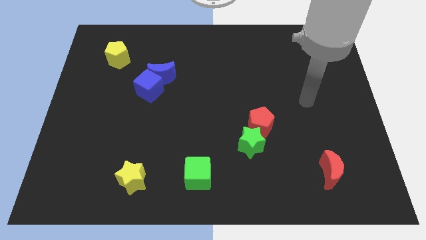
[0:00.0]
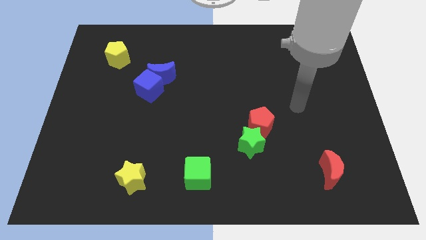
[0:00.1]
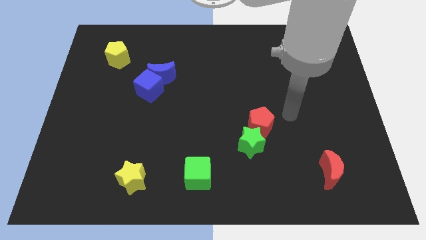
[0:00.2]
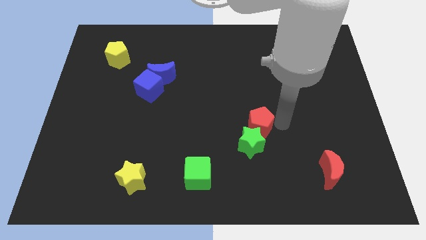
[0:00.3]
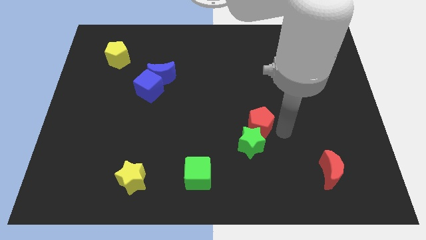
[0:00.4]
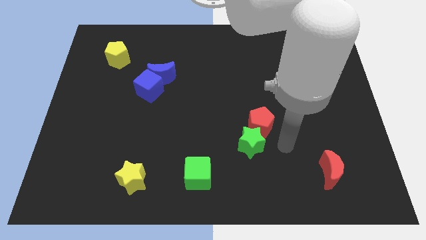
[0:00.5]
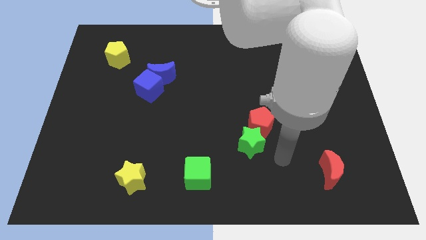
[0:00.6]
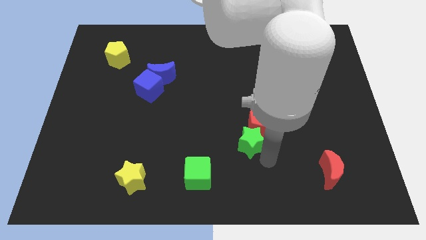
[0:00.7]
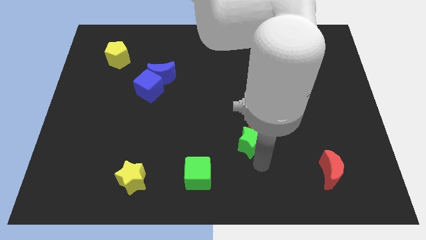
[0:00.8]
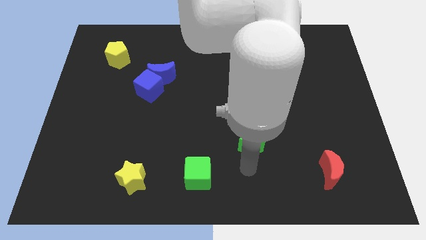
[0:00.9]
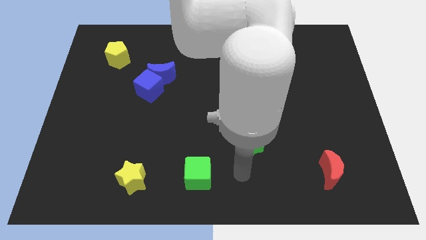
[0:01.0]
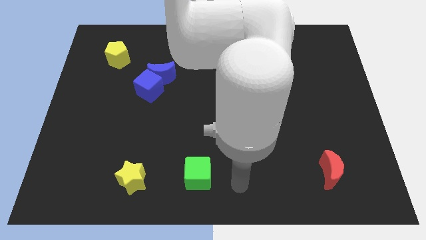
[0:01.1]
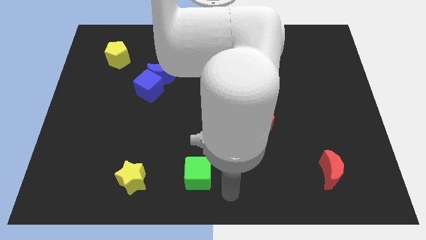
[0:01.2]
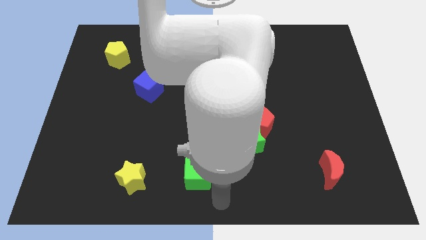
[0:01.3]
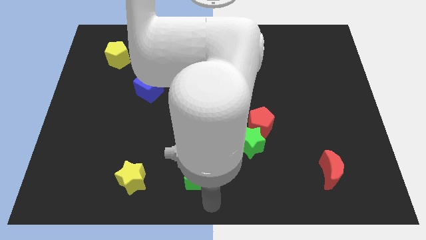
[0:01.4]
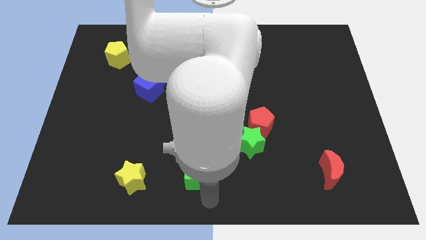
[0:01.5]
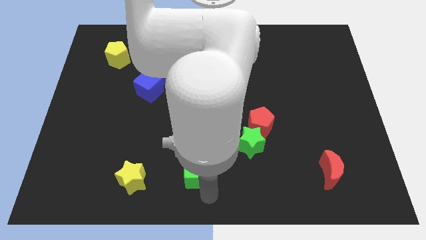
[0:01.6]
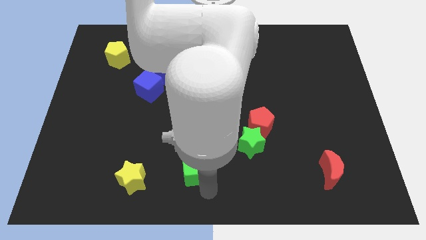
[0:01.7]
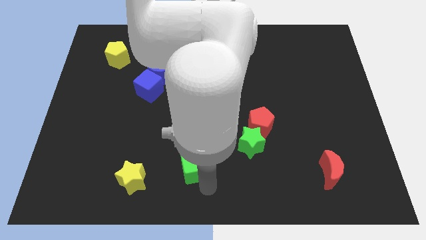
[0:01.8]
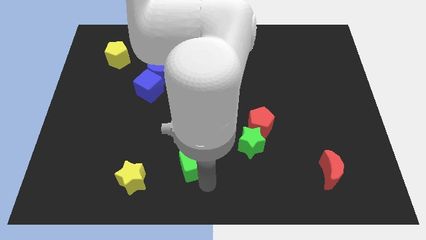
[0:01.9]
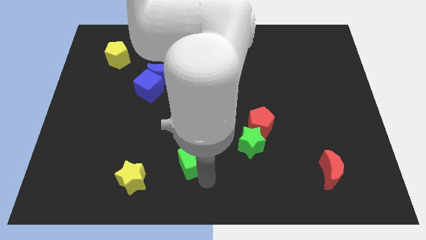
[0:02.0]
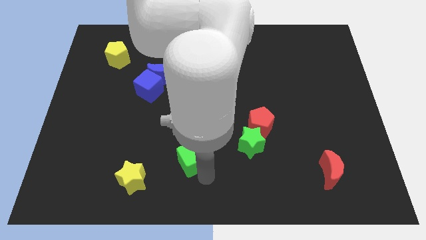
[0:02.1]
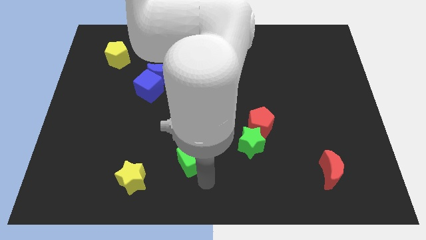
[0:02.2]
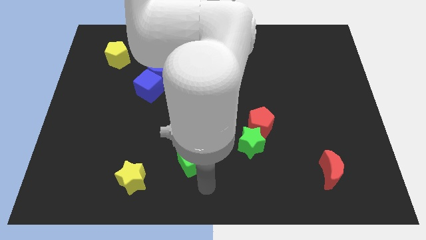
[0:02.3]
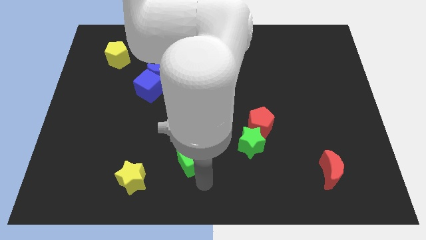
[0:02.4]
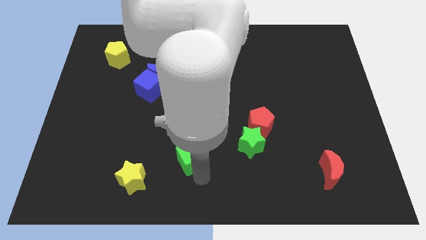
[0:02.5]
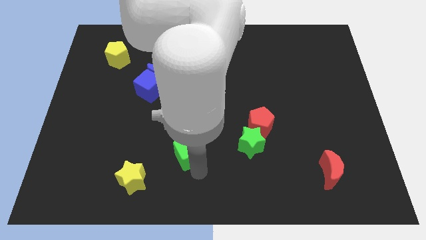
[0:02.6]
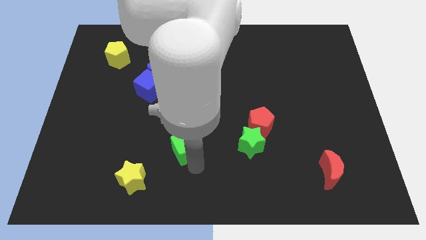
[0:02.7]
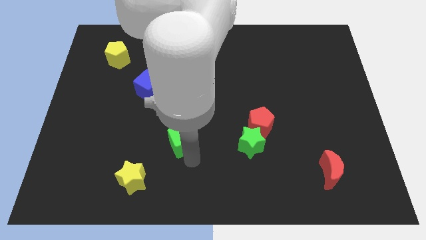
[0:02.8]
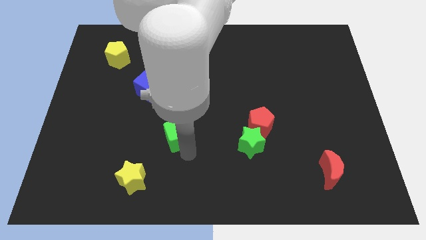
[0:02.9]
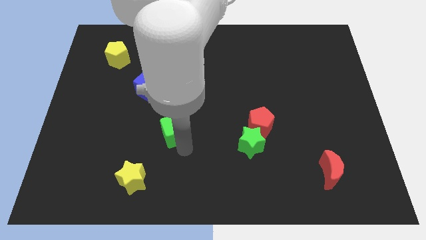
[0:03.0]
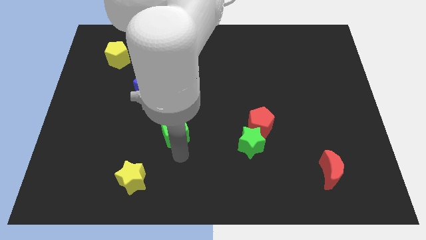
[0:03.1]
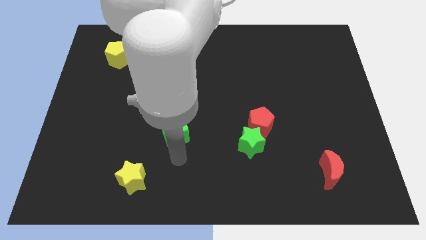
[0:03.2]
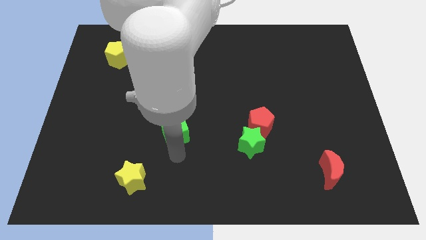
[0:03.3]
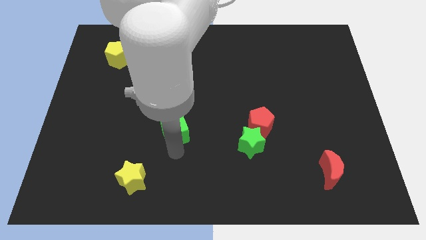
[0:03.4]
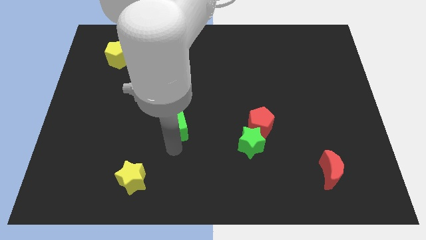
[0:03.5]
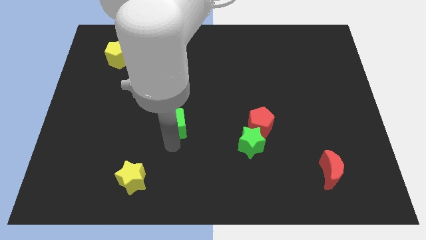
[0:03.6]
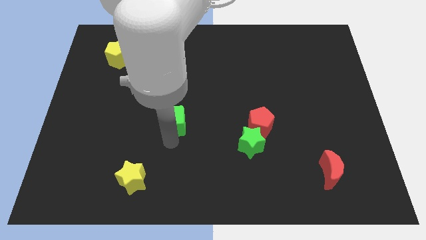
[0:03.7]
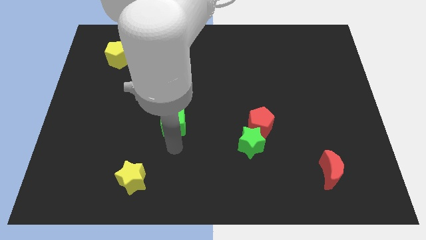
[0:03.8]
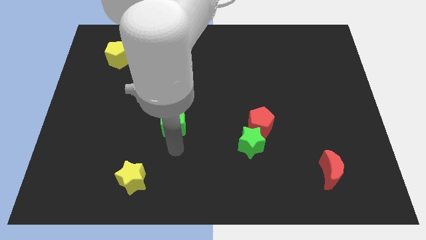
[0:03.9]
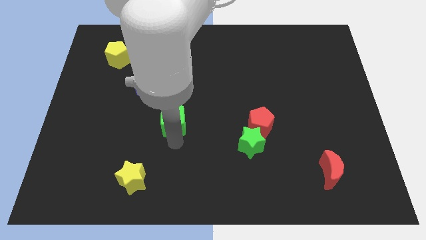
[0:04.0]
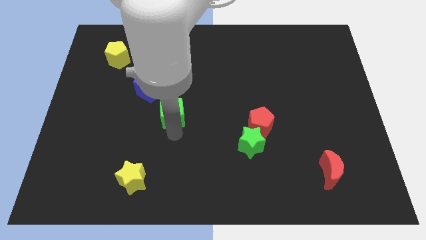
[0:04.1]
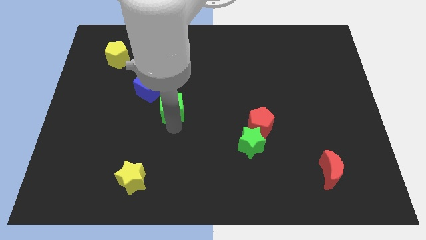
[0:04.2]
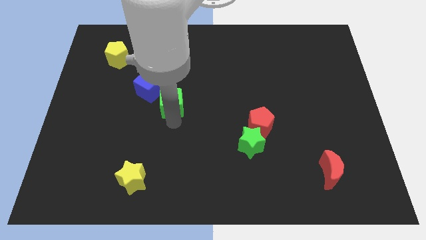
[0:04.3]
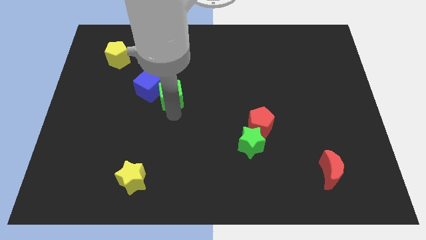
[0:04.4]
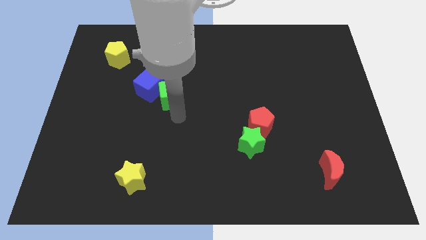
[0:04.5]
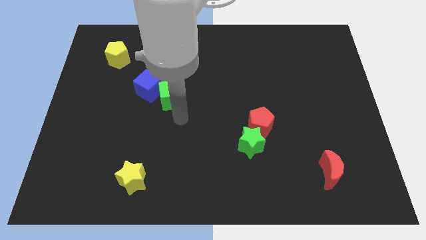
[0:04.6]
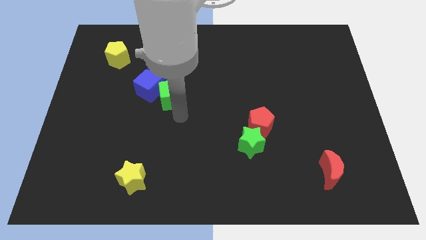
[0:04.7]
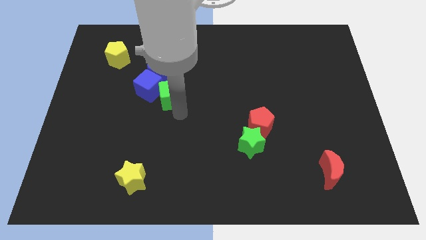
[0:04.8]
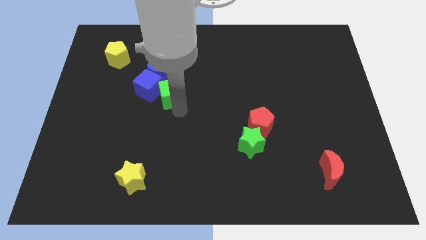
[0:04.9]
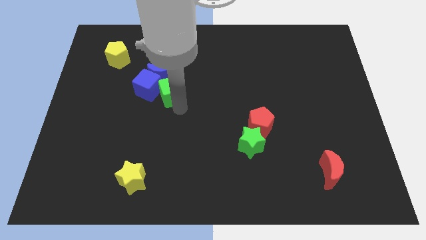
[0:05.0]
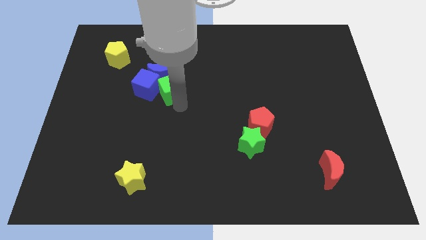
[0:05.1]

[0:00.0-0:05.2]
put the green cube next to the blue moon

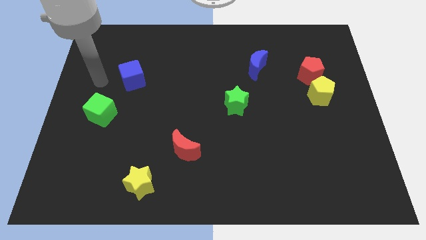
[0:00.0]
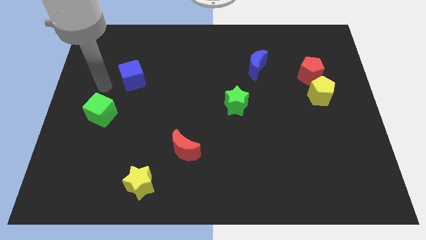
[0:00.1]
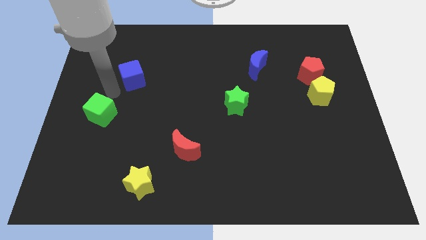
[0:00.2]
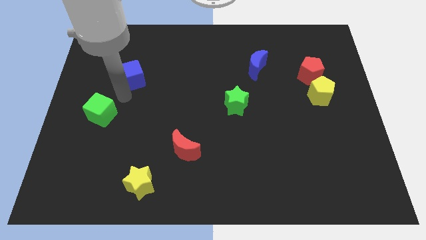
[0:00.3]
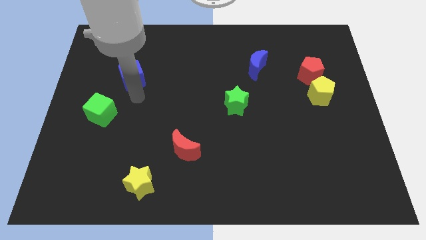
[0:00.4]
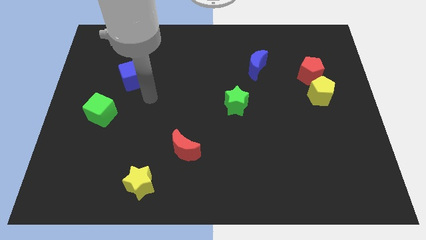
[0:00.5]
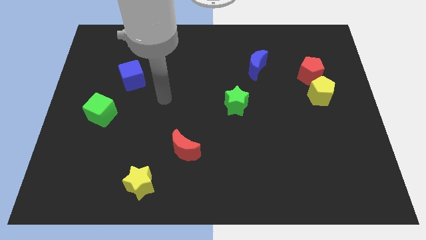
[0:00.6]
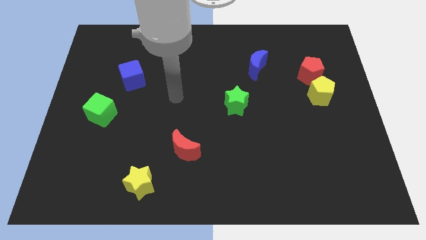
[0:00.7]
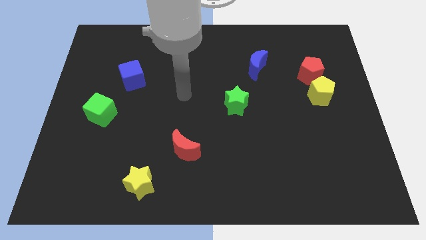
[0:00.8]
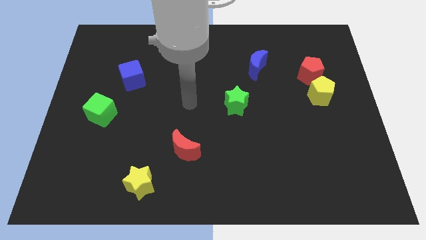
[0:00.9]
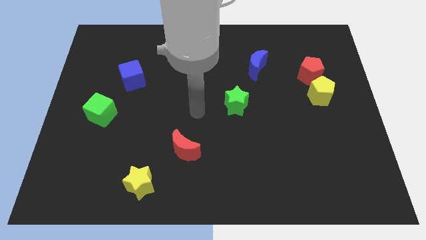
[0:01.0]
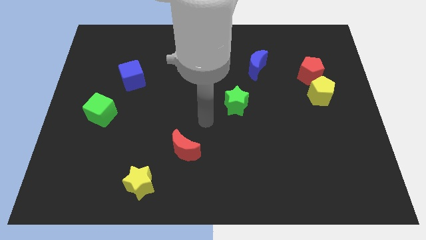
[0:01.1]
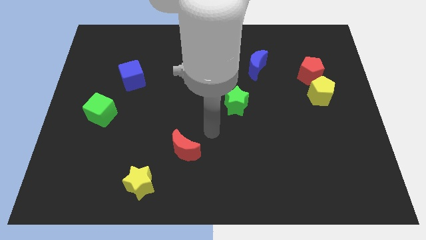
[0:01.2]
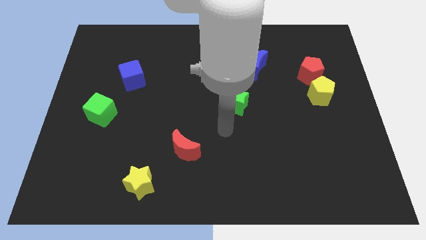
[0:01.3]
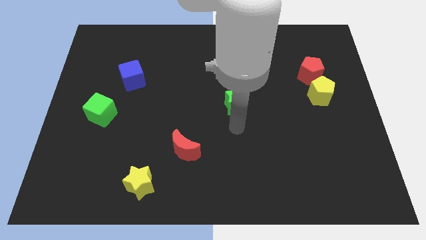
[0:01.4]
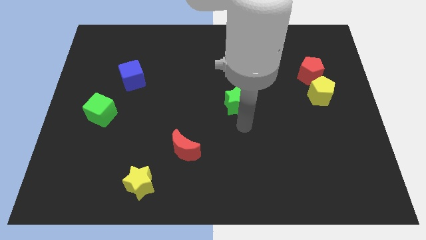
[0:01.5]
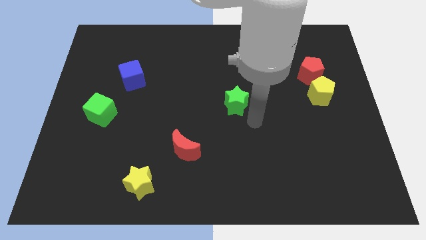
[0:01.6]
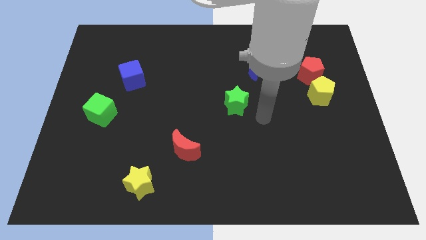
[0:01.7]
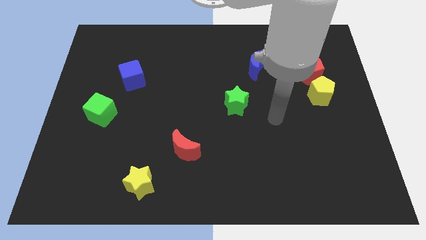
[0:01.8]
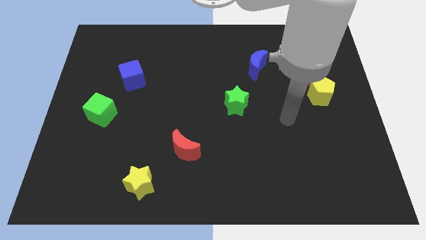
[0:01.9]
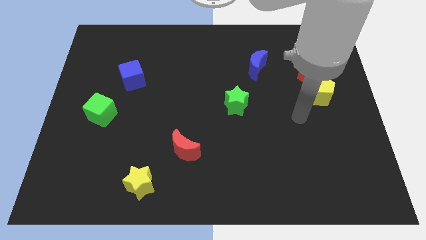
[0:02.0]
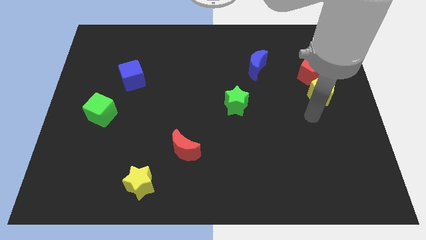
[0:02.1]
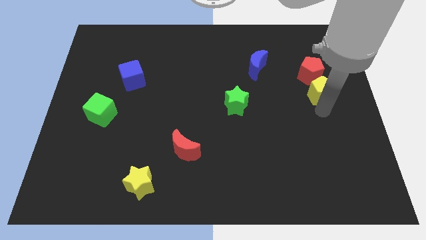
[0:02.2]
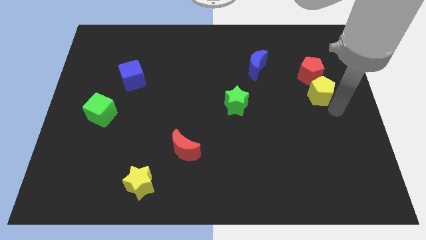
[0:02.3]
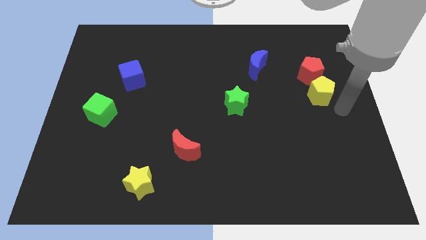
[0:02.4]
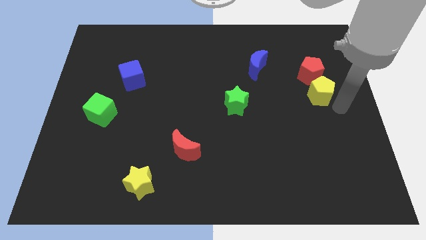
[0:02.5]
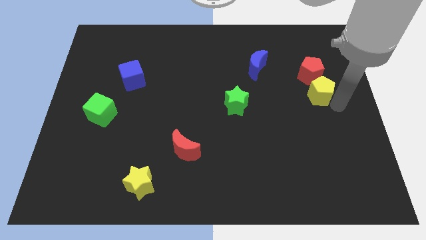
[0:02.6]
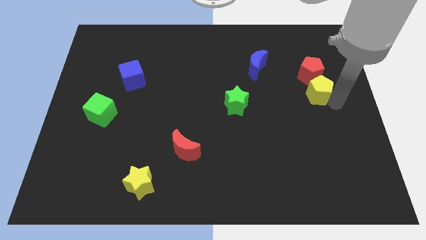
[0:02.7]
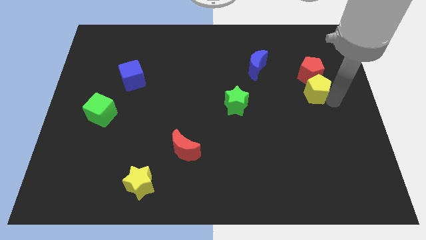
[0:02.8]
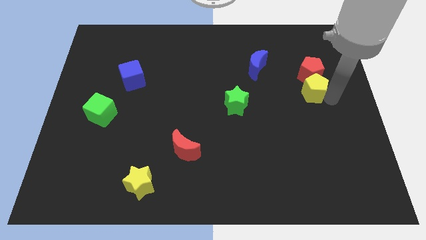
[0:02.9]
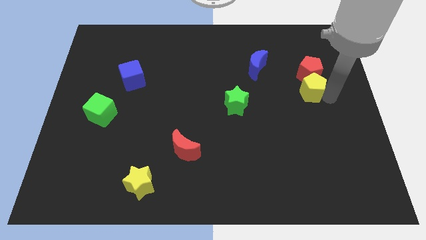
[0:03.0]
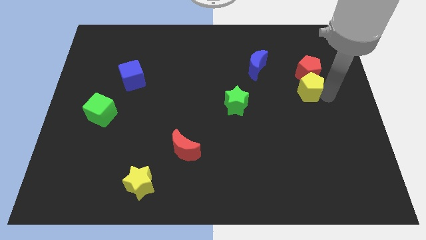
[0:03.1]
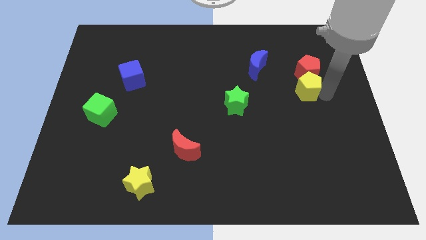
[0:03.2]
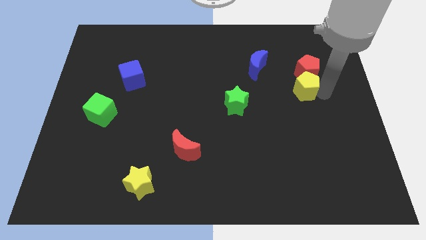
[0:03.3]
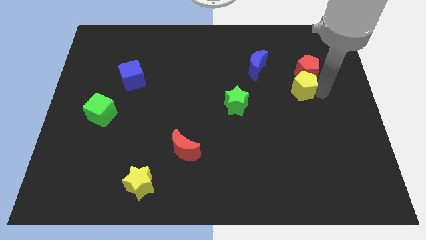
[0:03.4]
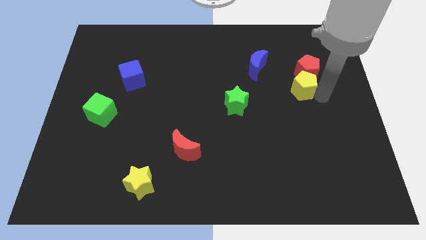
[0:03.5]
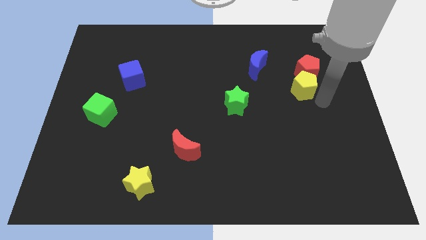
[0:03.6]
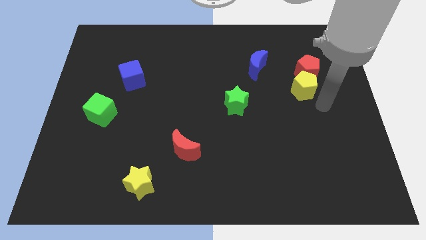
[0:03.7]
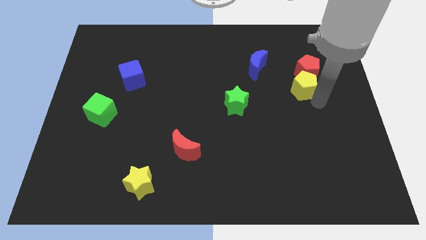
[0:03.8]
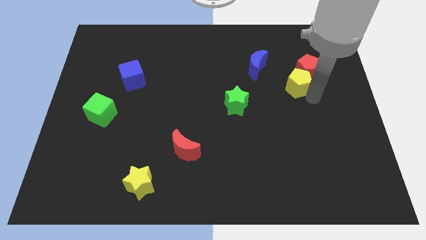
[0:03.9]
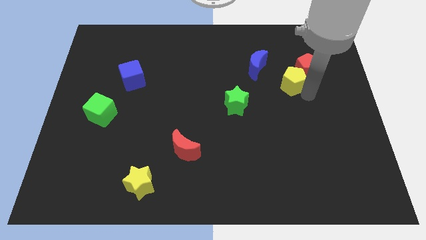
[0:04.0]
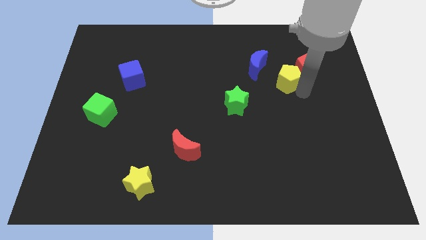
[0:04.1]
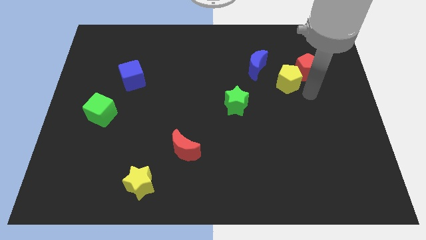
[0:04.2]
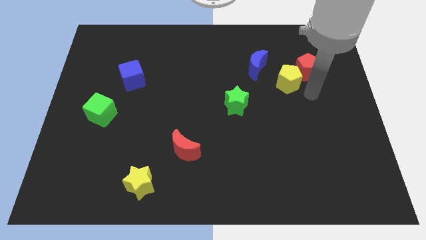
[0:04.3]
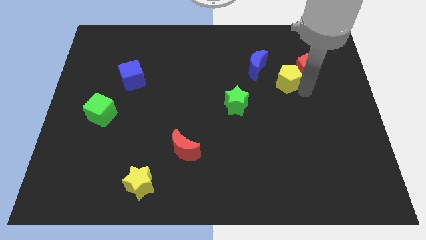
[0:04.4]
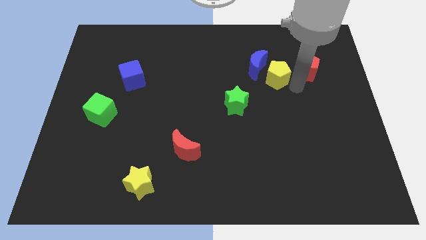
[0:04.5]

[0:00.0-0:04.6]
push the yellow pentagon towards the blue moon
